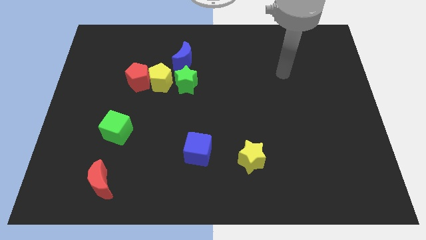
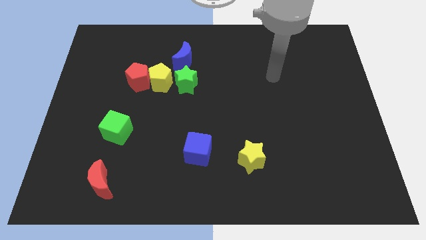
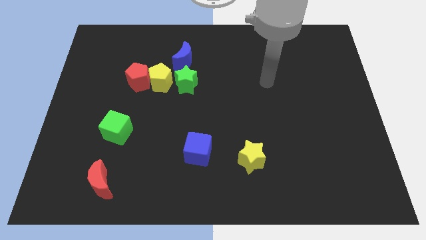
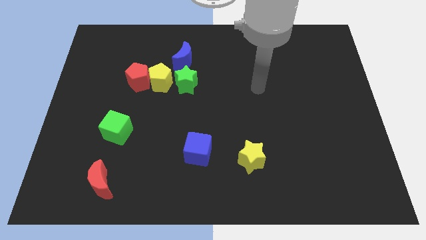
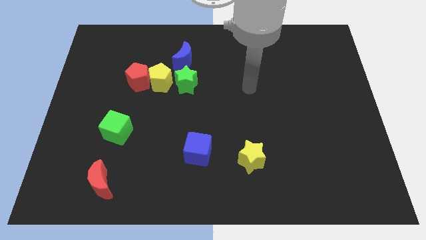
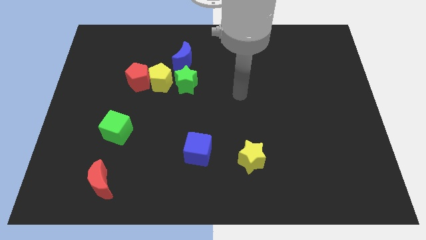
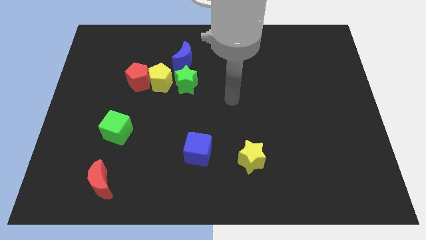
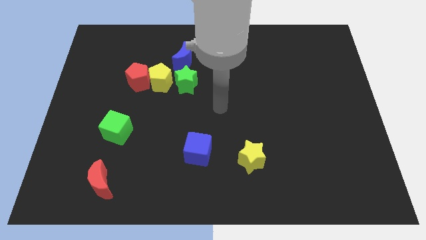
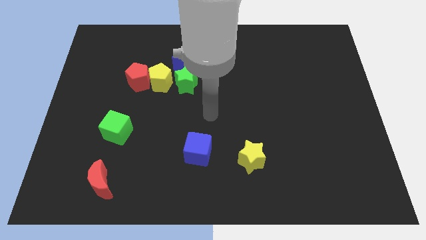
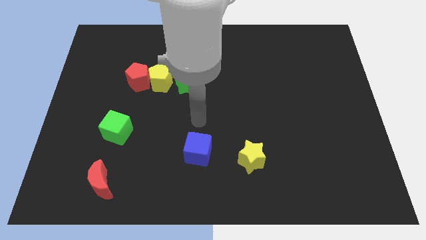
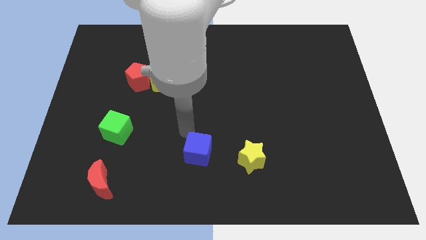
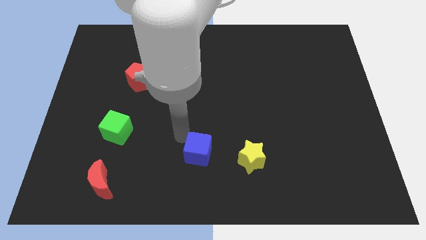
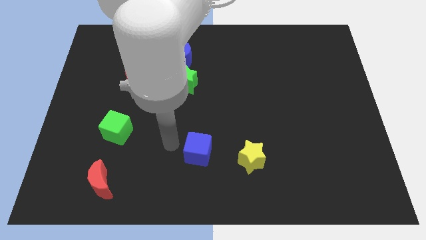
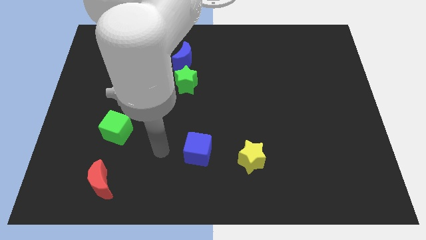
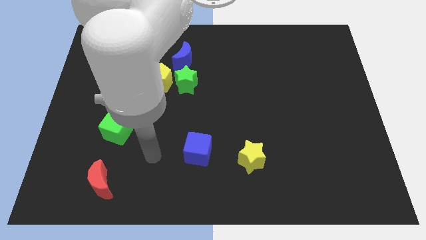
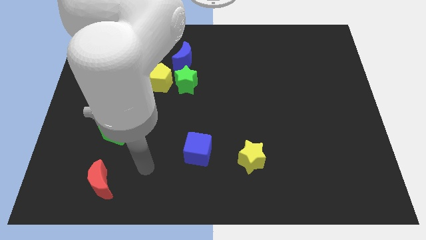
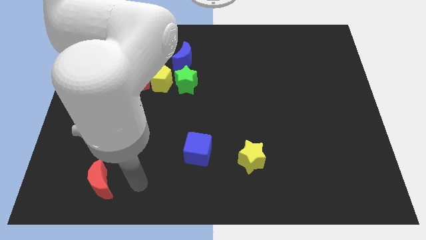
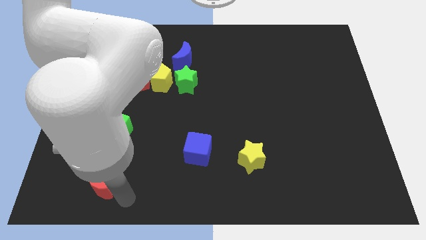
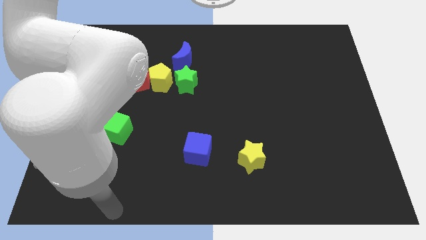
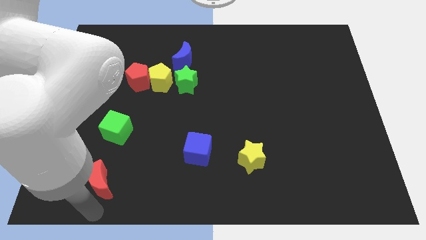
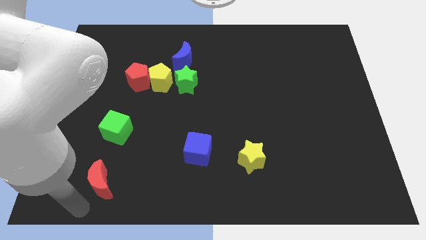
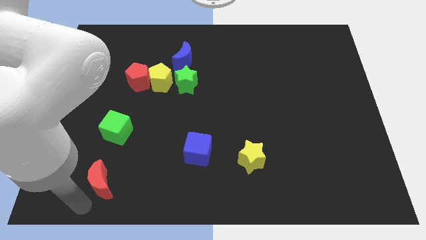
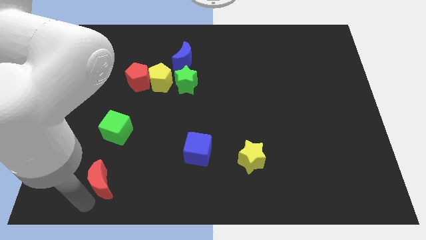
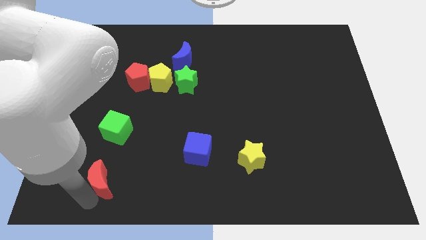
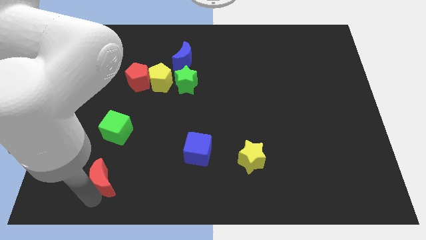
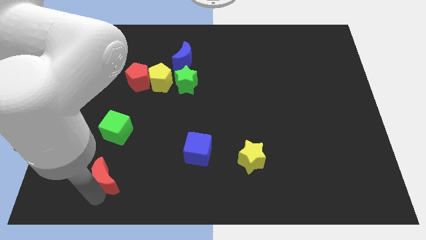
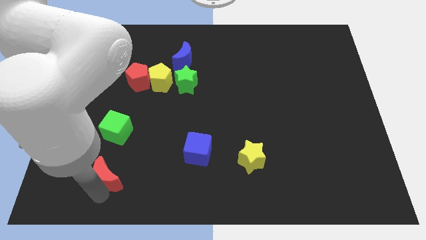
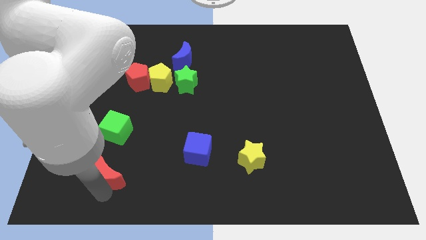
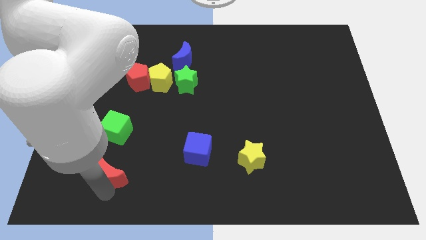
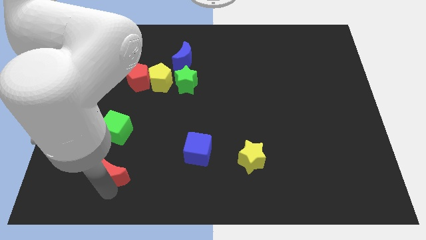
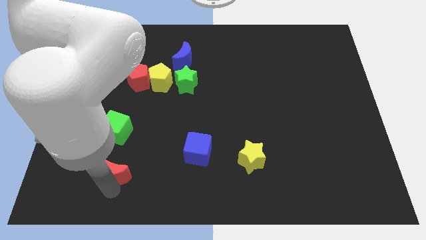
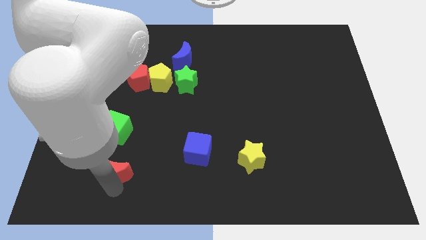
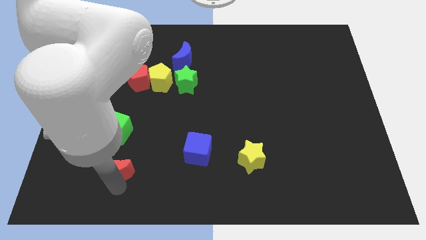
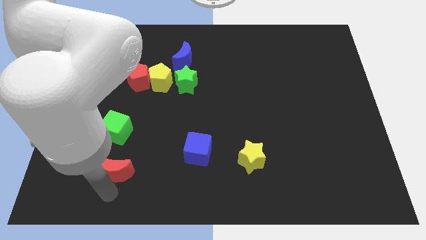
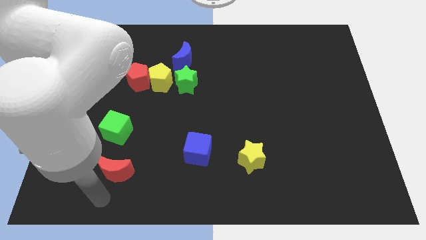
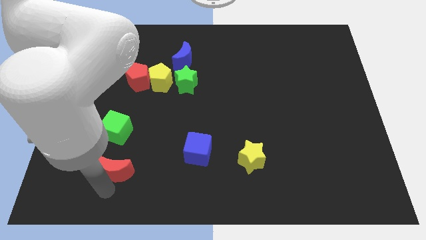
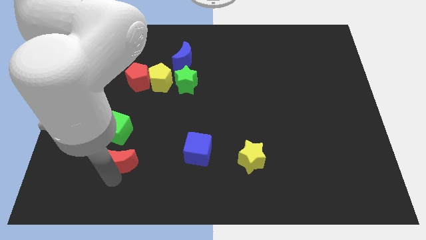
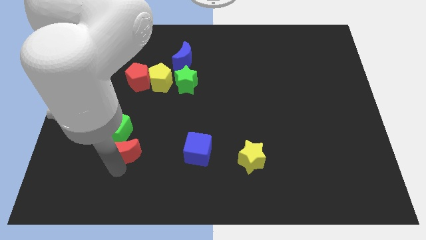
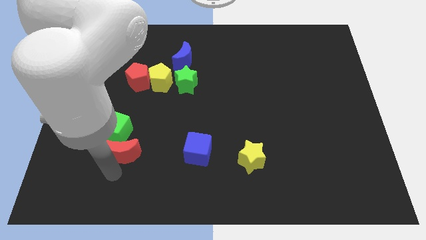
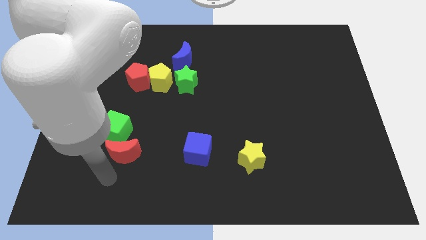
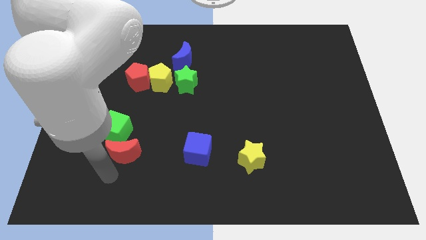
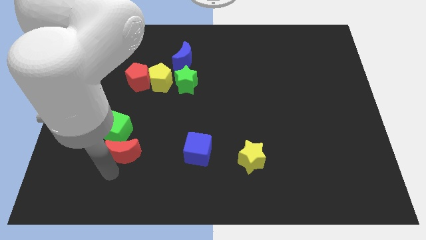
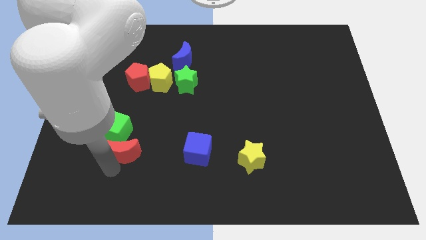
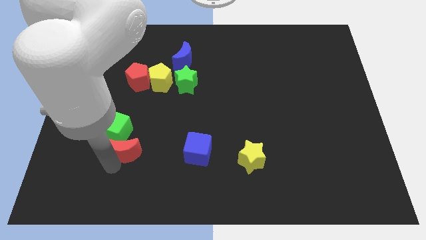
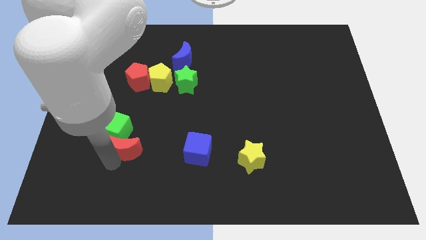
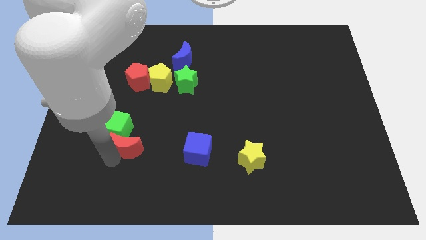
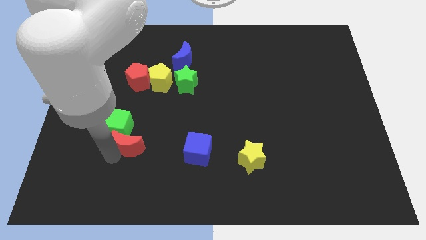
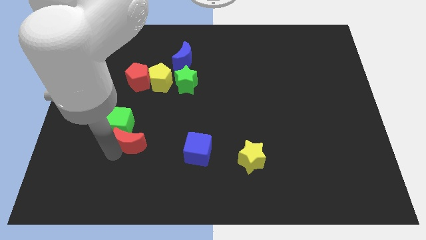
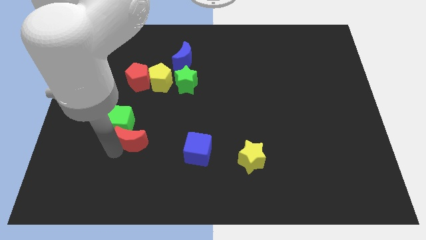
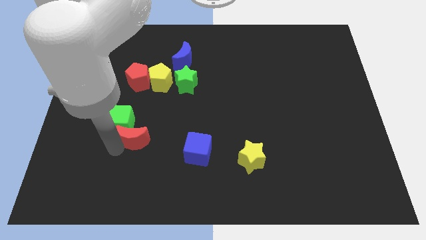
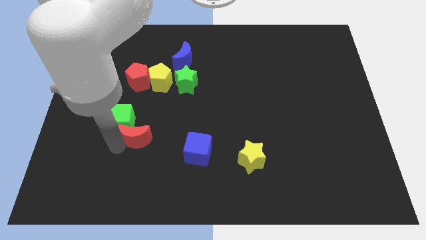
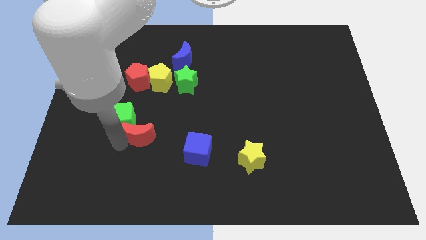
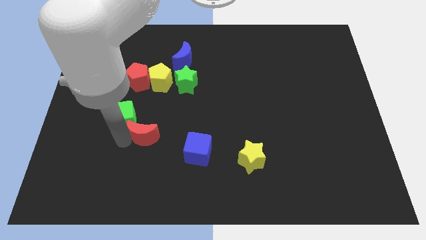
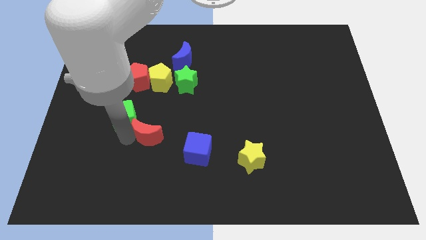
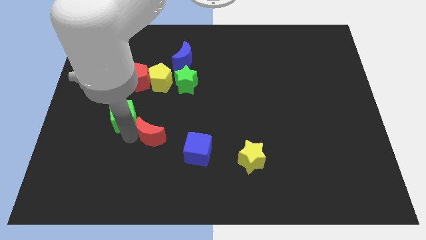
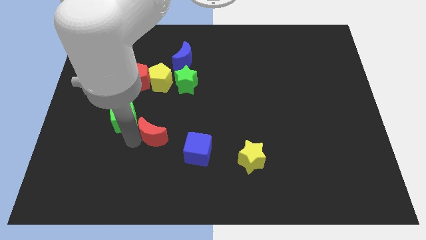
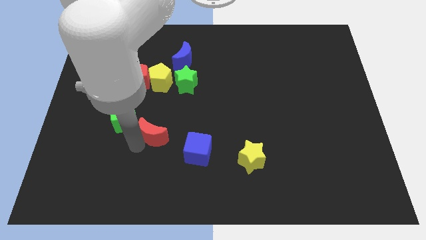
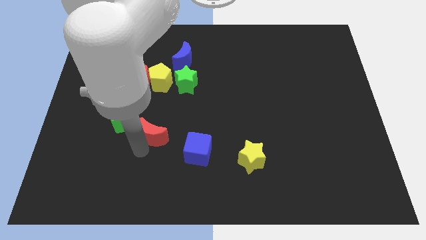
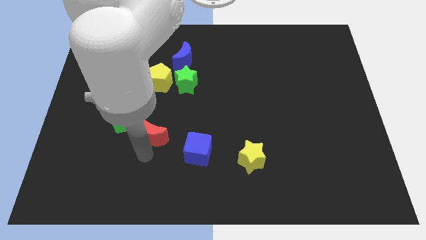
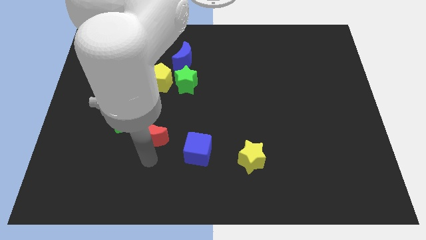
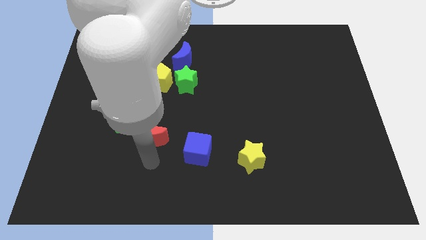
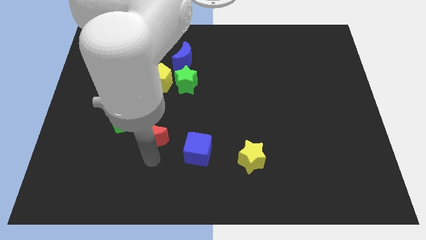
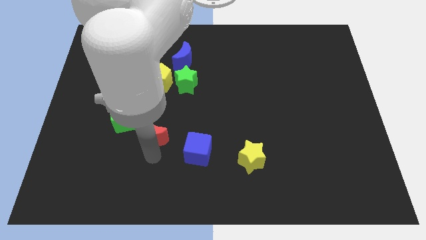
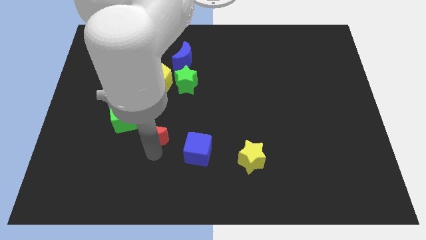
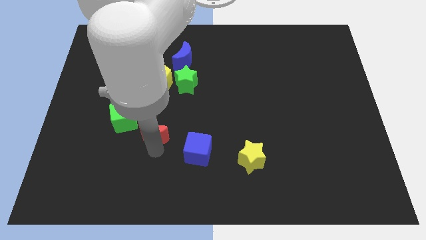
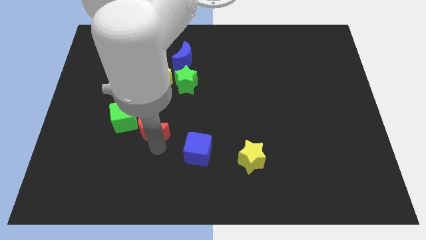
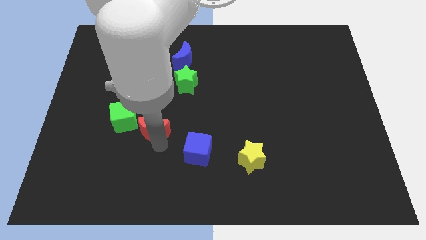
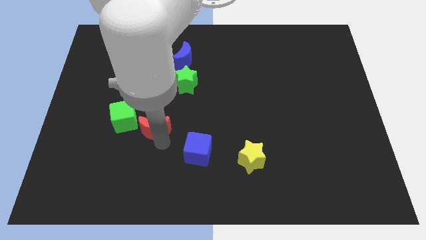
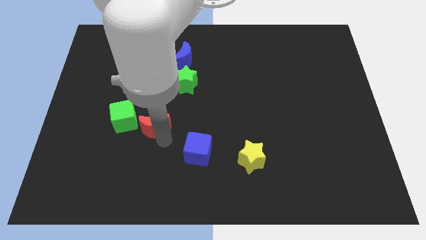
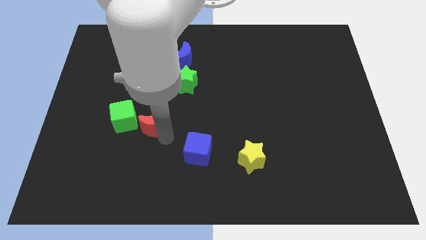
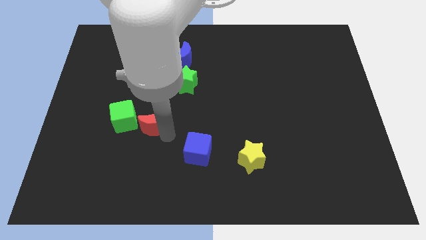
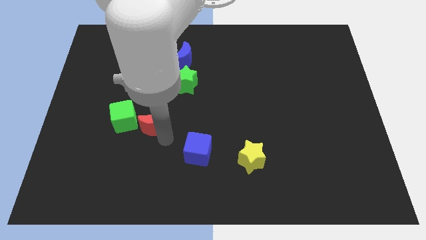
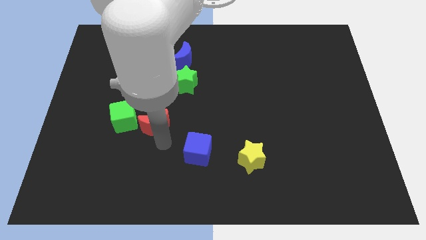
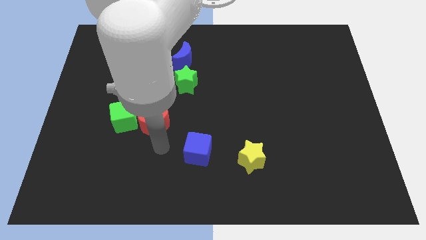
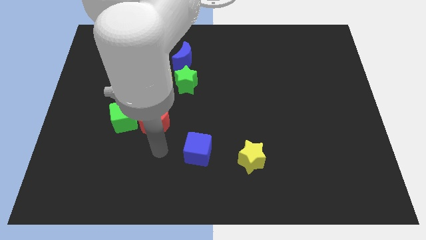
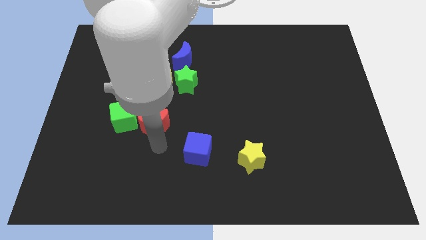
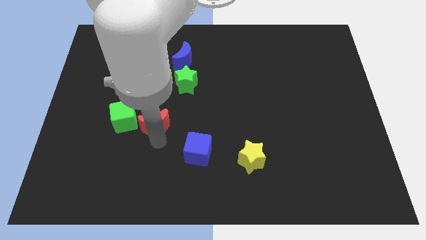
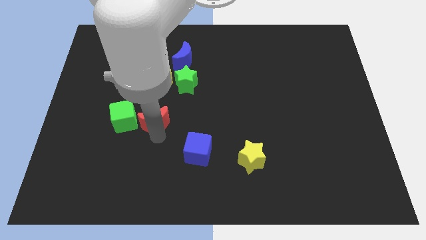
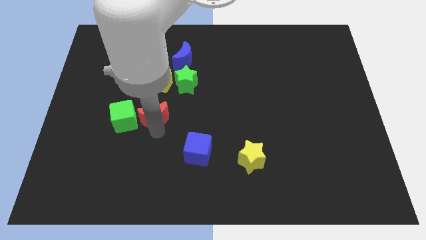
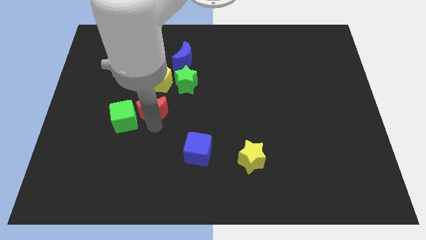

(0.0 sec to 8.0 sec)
move the red moon to the bottom left of the green star
